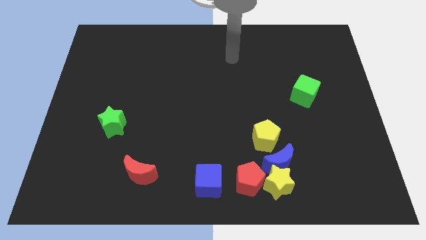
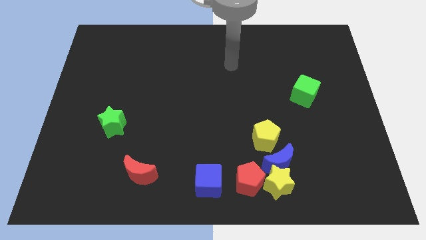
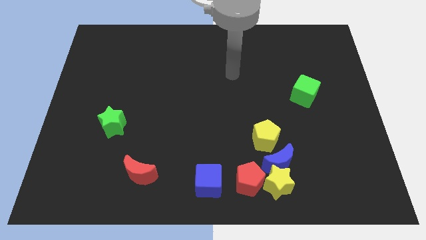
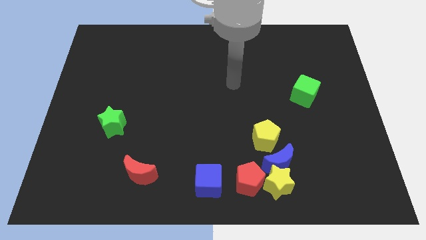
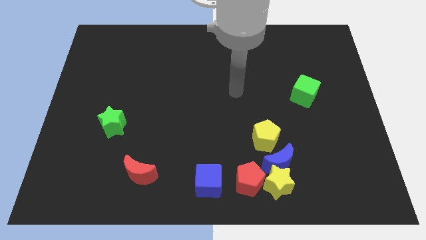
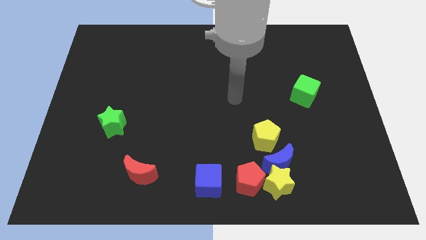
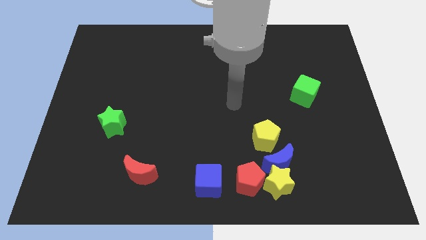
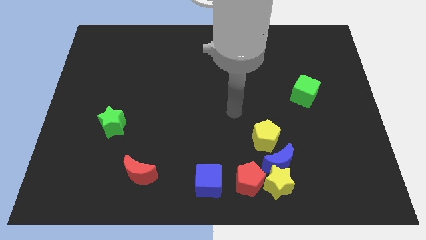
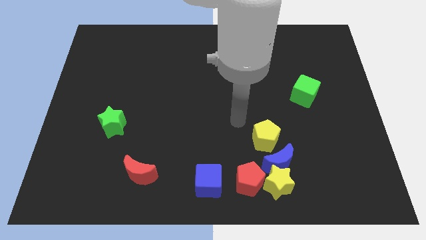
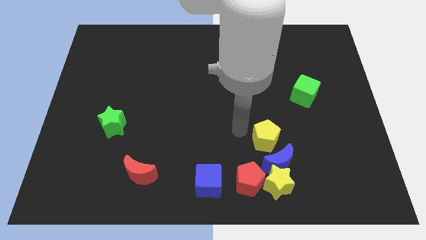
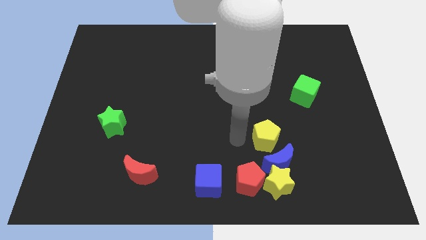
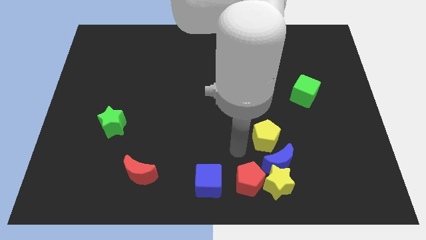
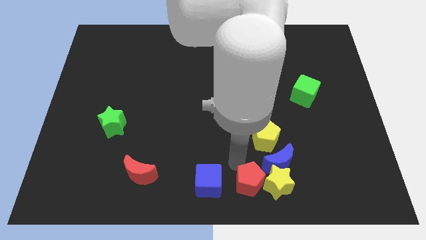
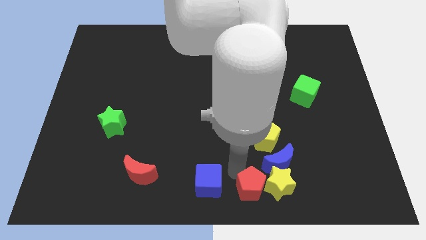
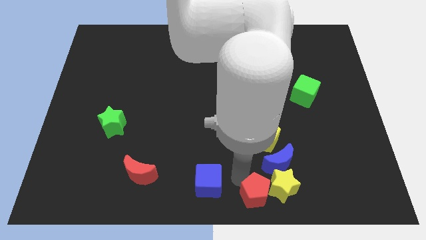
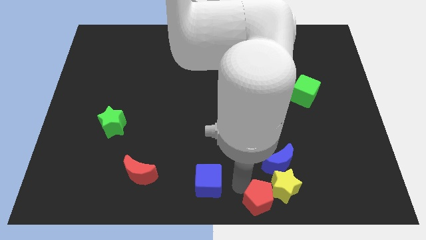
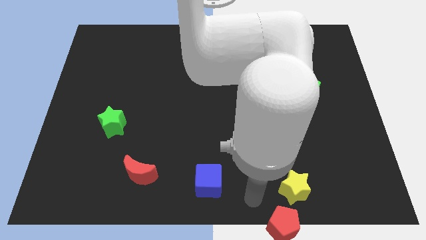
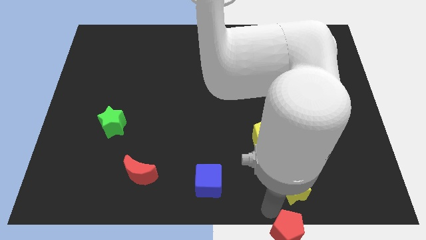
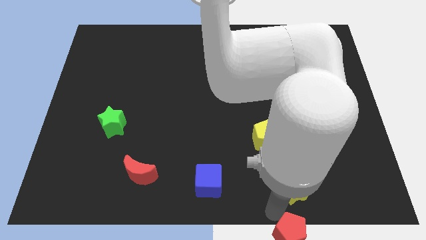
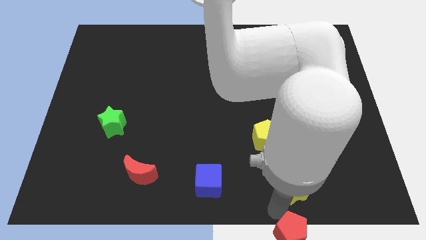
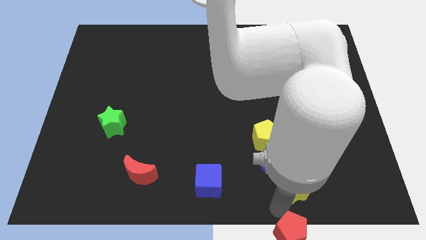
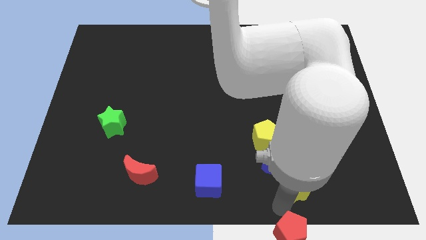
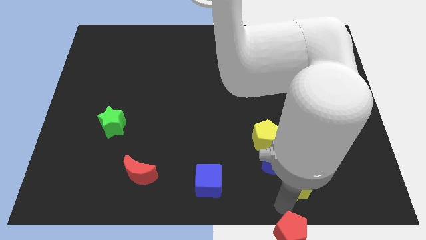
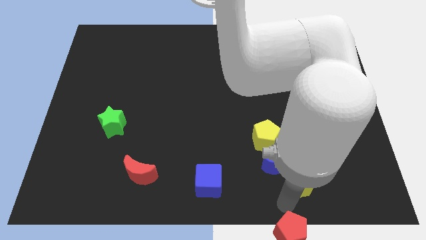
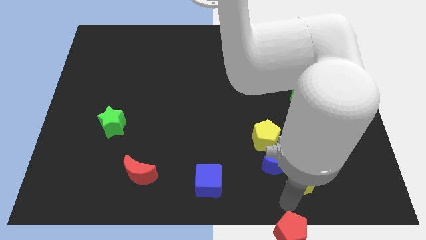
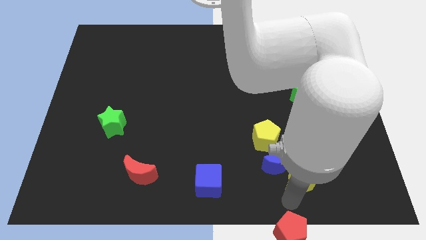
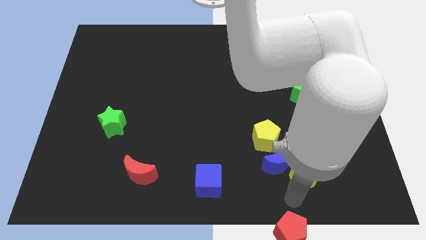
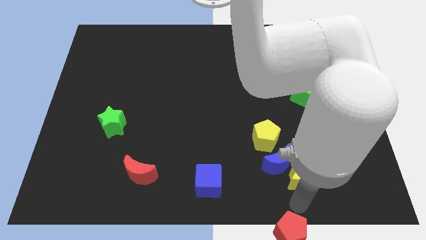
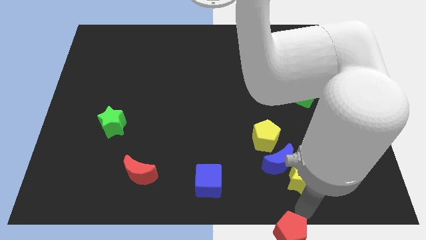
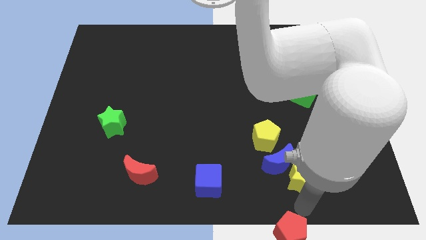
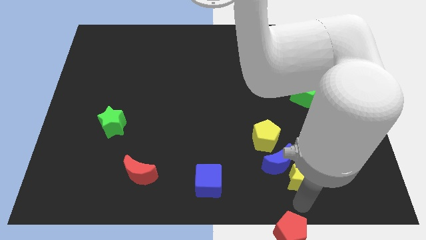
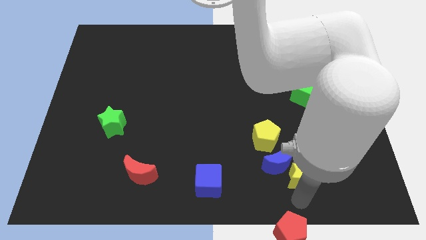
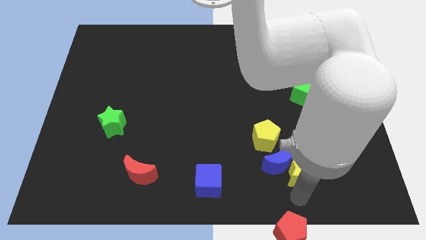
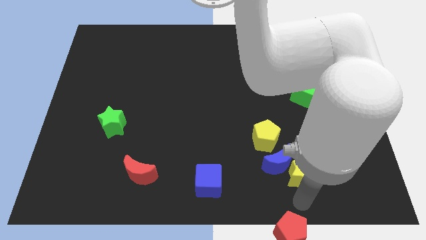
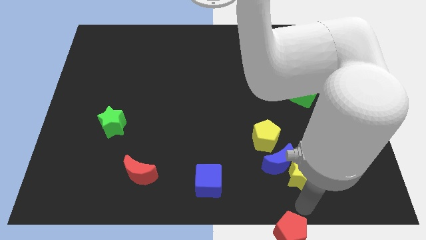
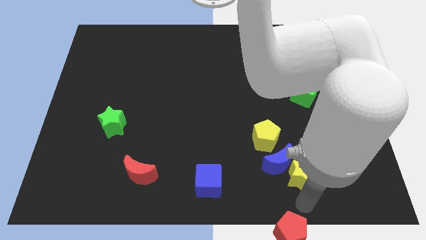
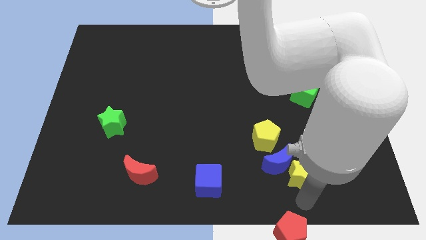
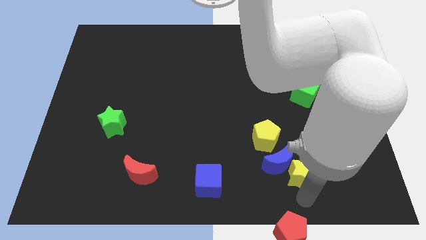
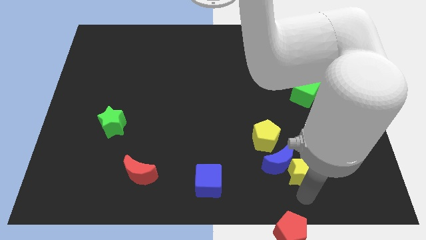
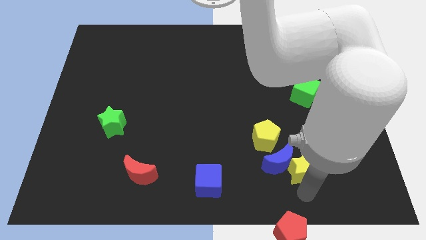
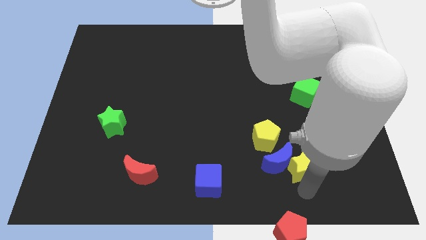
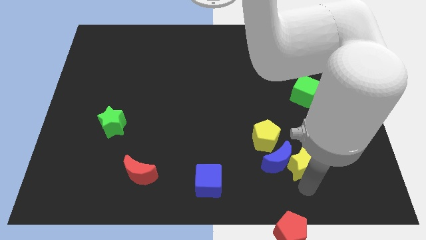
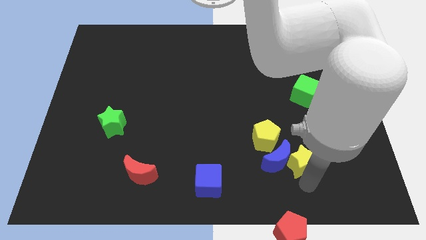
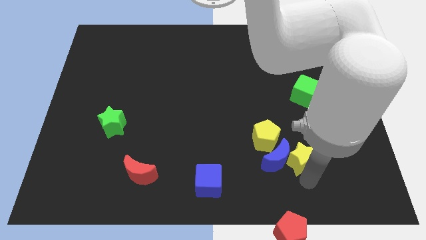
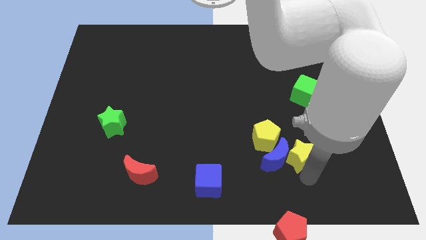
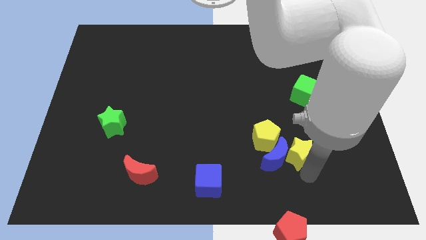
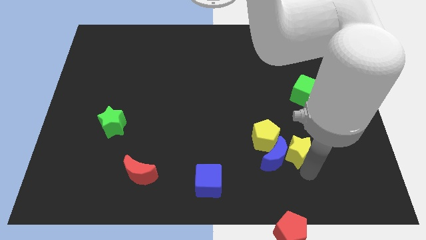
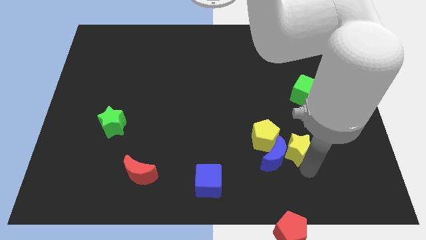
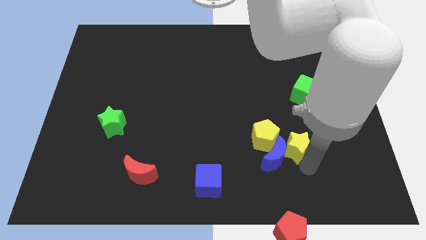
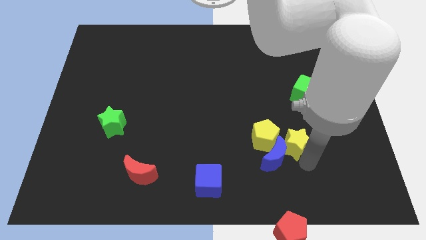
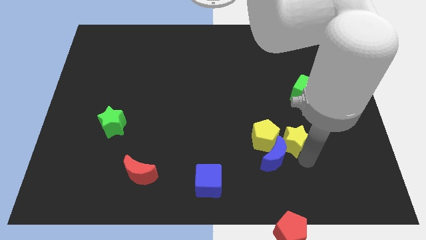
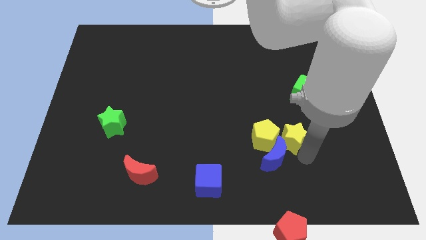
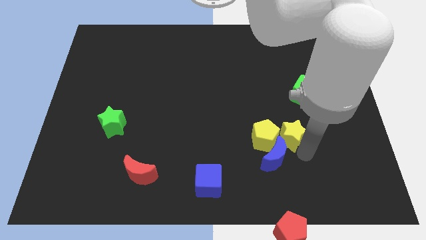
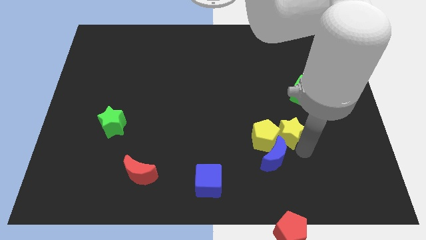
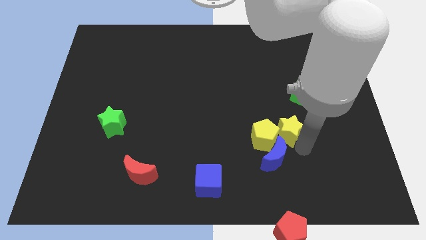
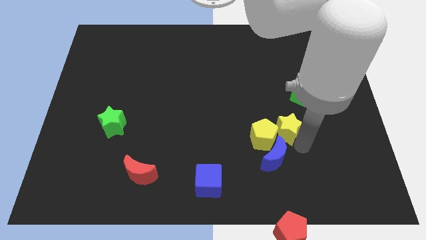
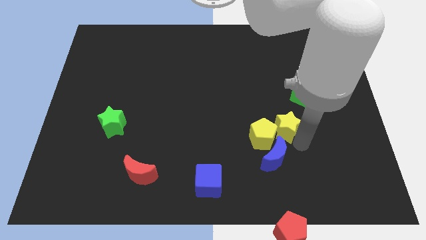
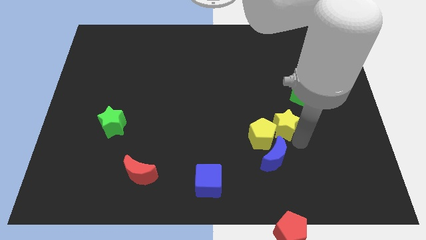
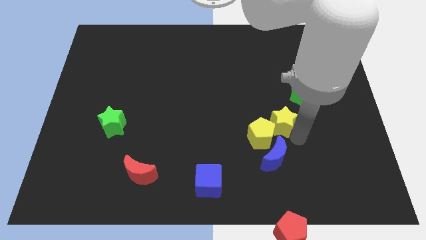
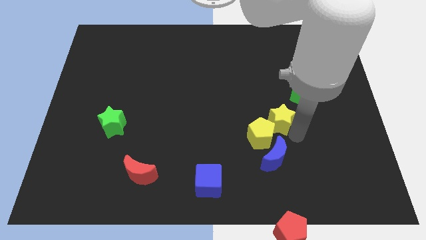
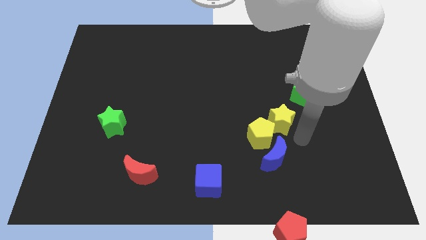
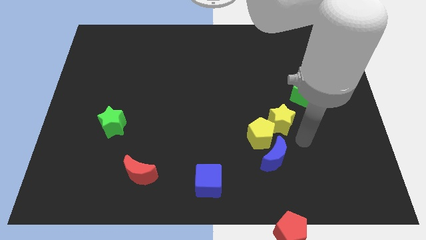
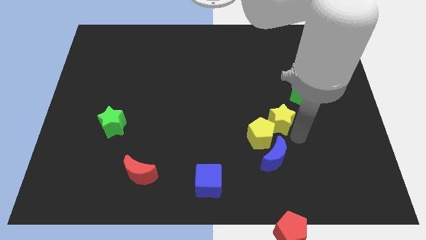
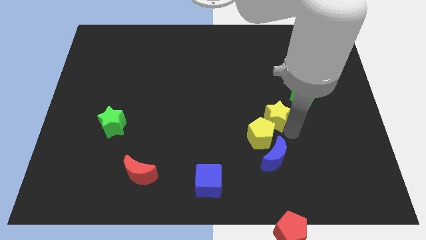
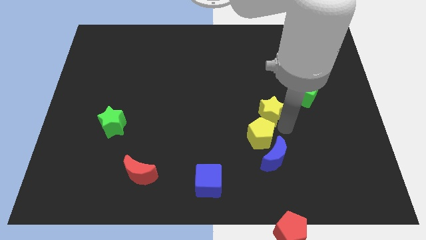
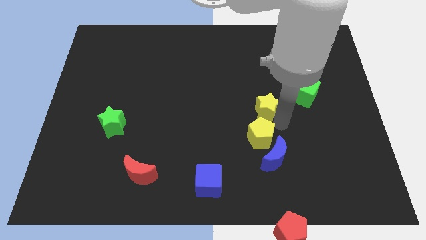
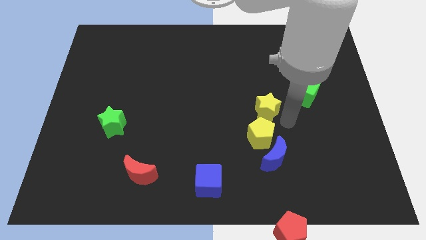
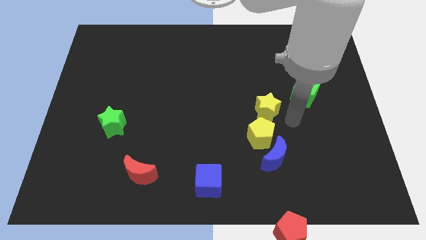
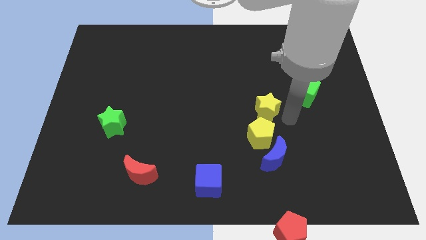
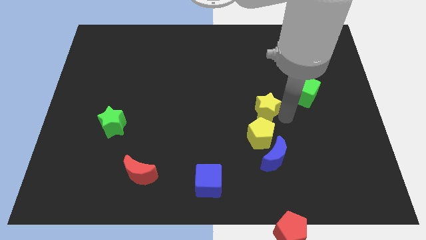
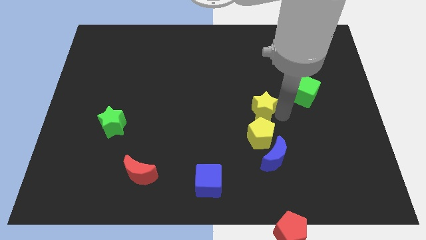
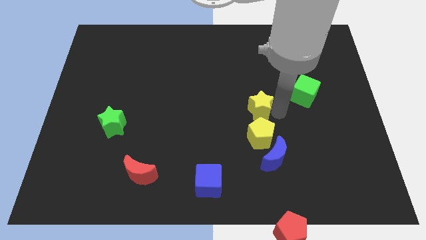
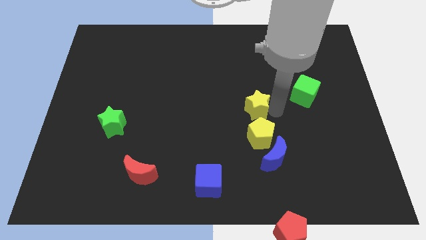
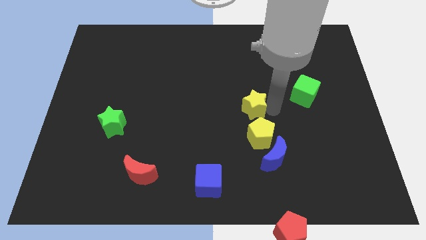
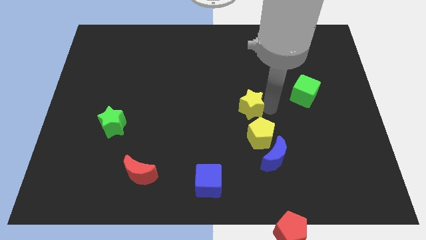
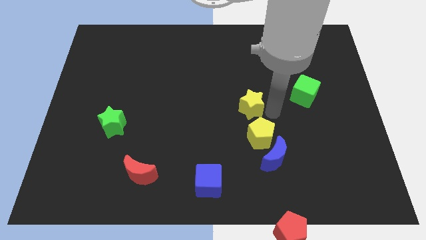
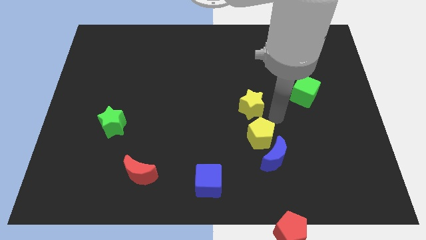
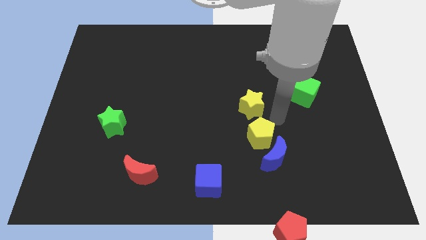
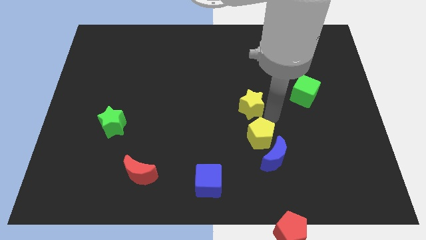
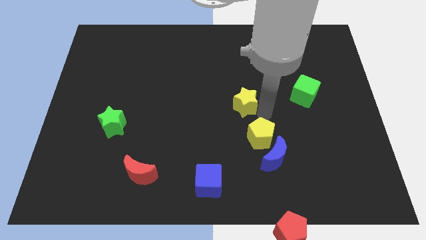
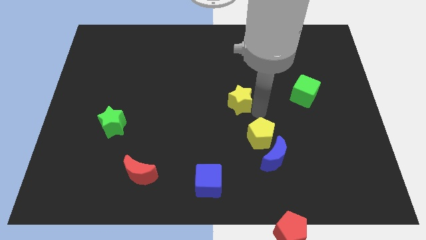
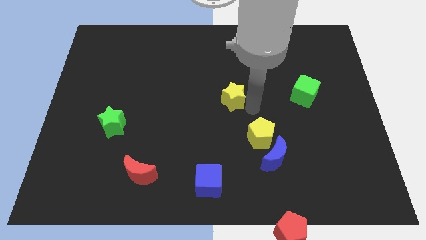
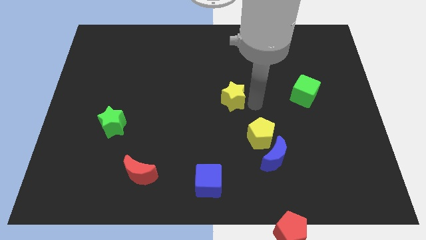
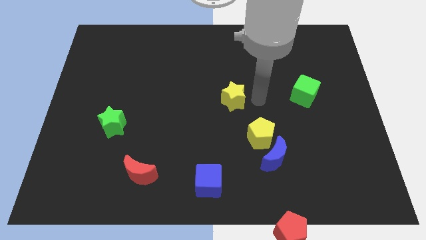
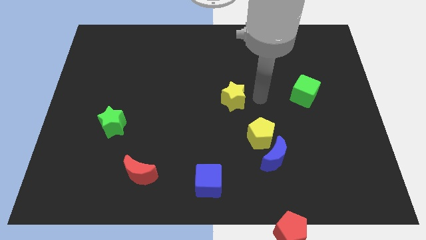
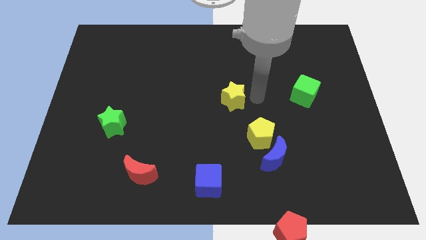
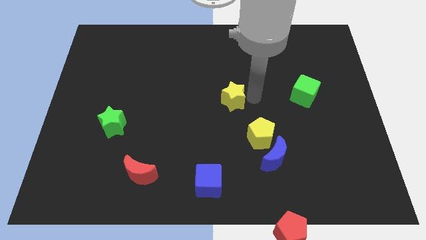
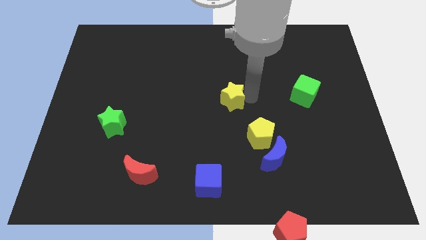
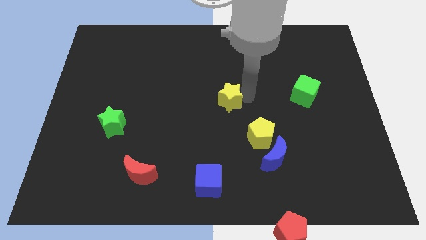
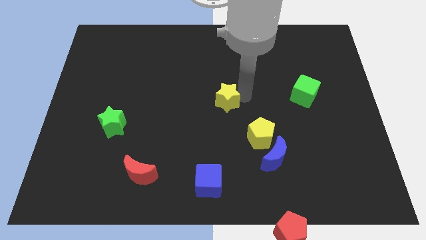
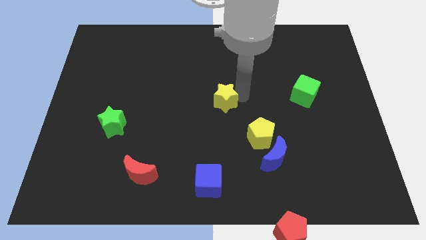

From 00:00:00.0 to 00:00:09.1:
push the yellow star upwards and then left
